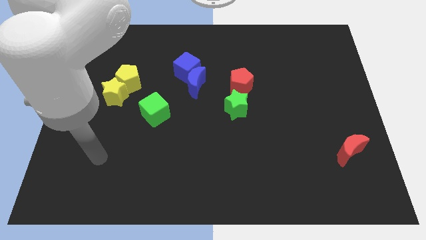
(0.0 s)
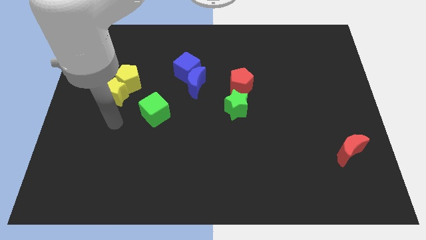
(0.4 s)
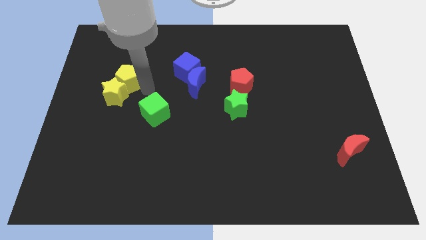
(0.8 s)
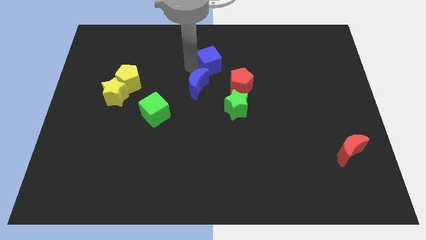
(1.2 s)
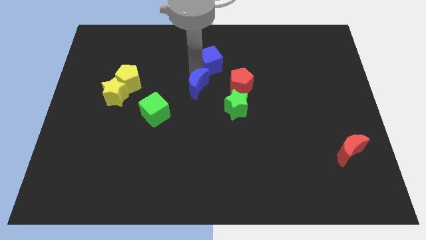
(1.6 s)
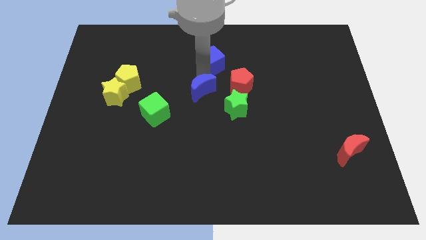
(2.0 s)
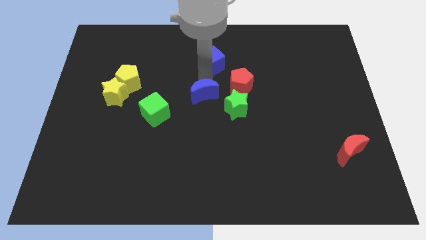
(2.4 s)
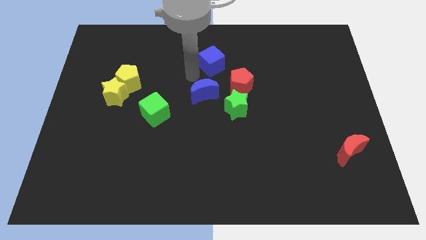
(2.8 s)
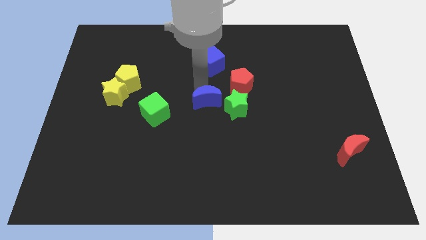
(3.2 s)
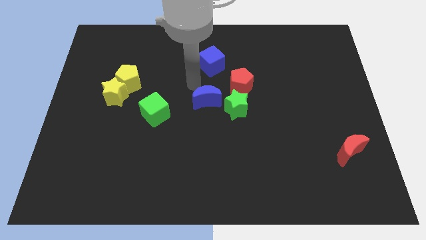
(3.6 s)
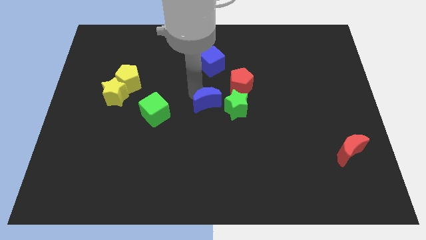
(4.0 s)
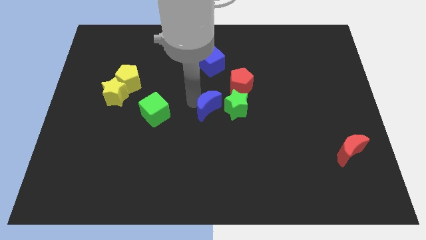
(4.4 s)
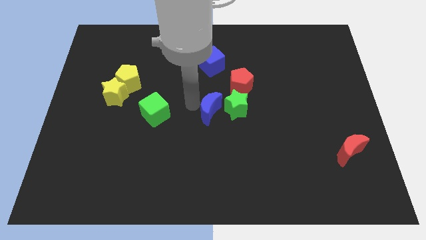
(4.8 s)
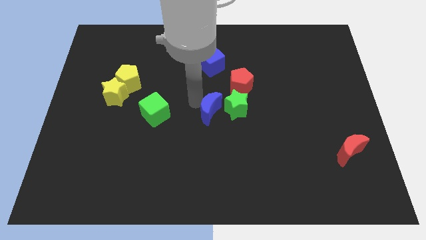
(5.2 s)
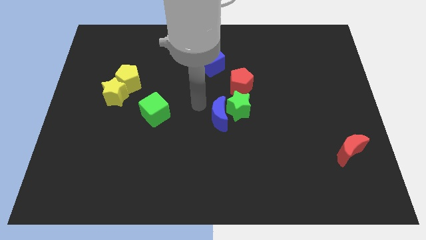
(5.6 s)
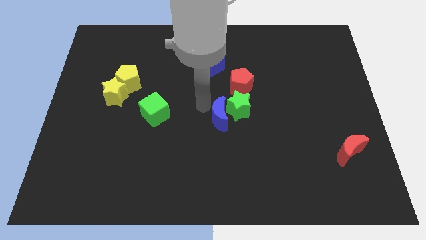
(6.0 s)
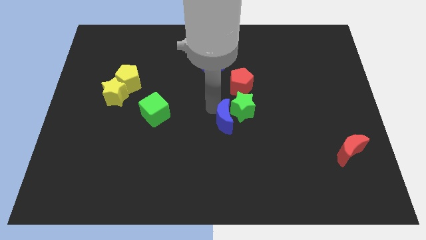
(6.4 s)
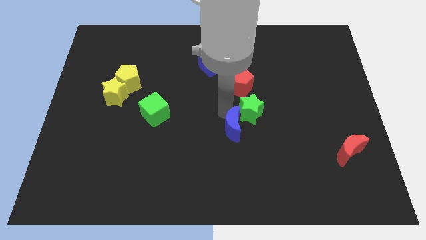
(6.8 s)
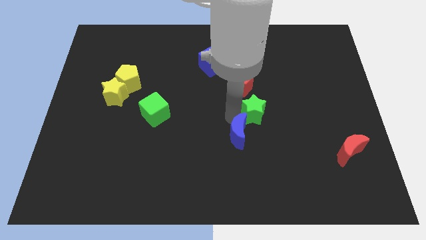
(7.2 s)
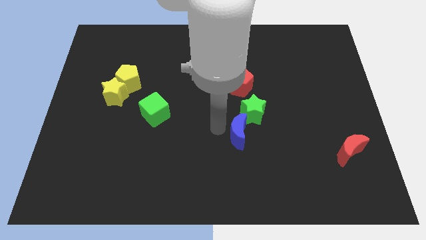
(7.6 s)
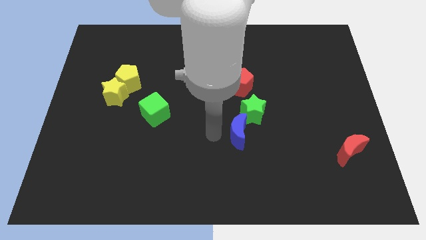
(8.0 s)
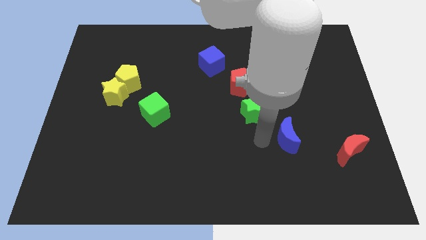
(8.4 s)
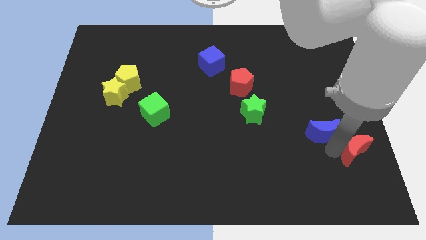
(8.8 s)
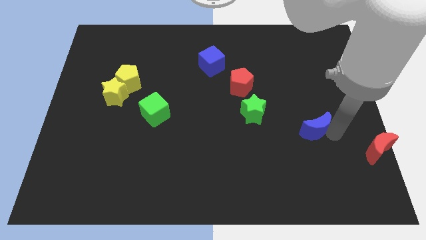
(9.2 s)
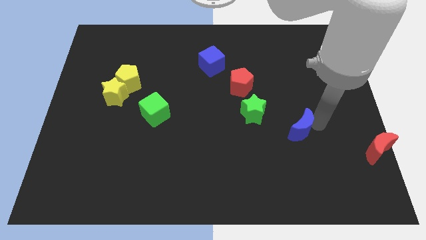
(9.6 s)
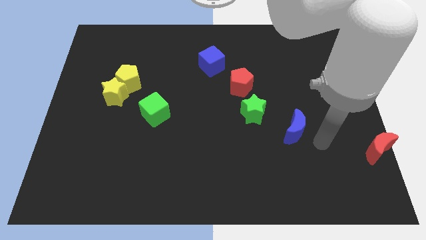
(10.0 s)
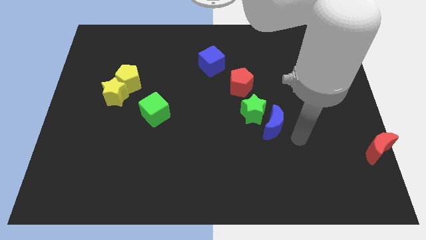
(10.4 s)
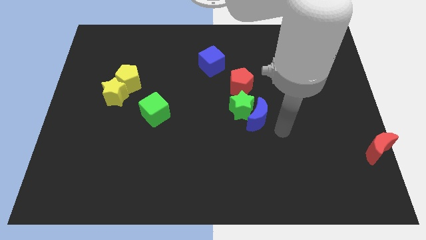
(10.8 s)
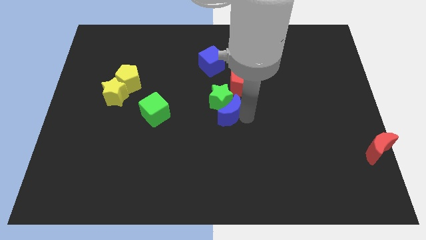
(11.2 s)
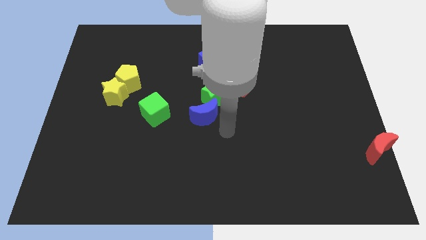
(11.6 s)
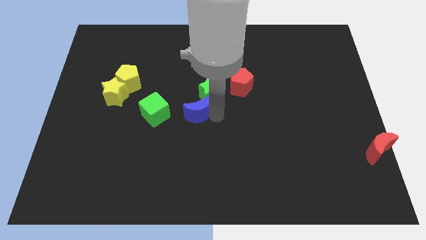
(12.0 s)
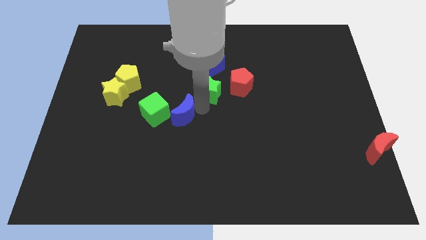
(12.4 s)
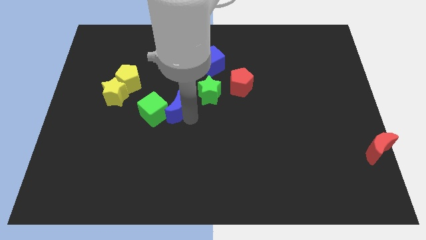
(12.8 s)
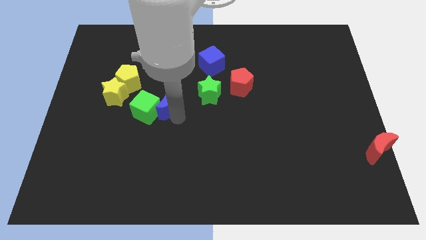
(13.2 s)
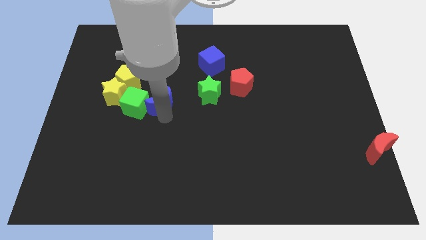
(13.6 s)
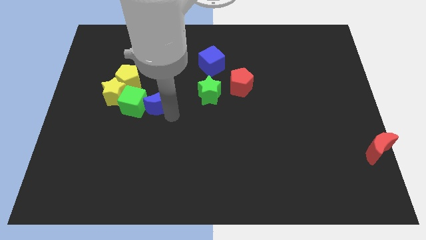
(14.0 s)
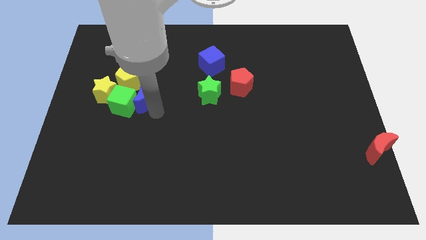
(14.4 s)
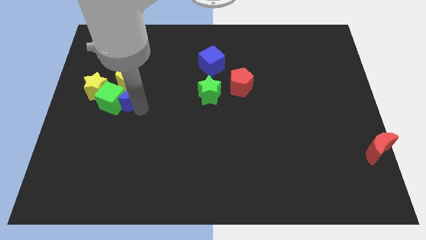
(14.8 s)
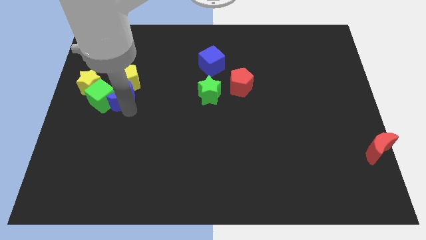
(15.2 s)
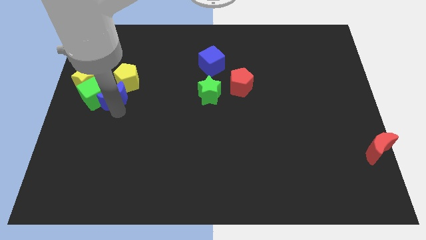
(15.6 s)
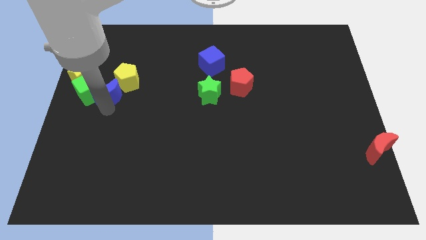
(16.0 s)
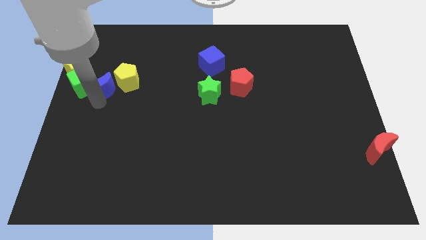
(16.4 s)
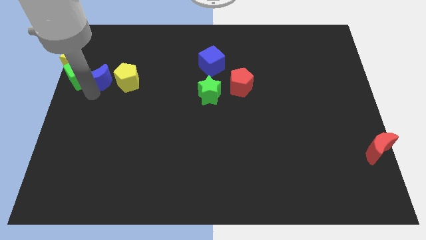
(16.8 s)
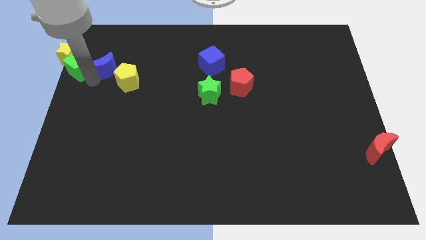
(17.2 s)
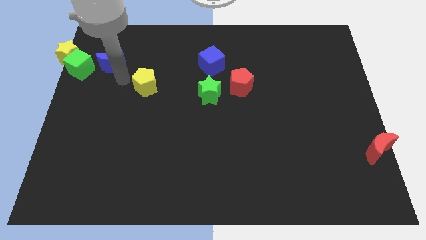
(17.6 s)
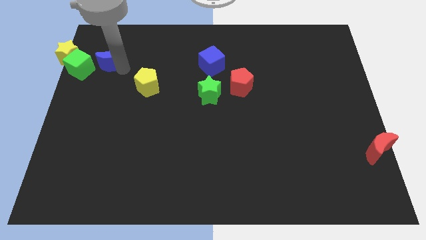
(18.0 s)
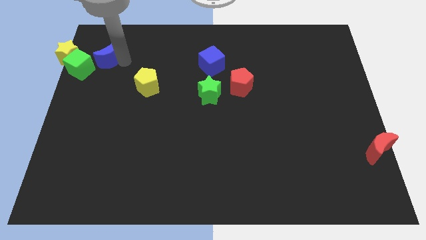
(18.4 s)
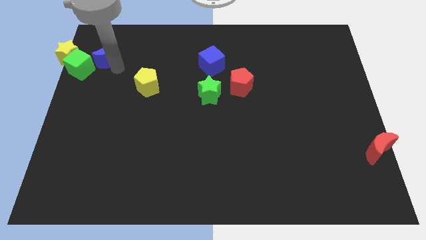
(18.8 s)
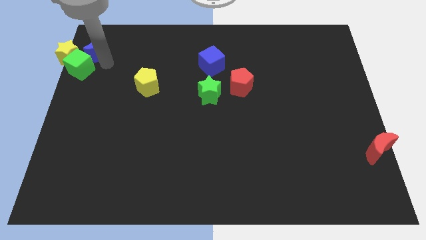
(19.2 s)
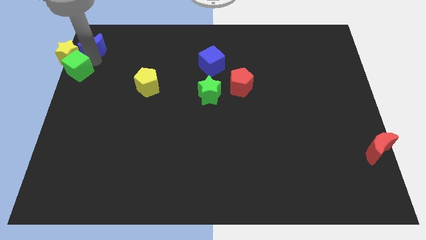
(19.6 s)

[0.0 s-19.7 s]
push the blue moon to the top left of the board

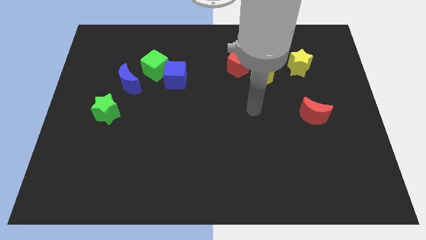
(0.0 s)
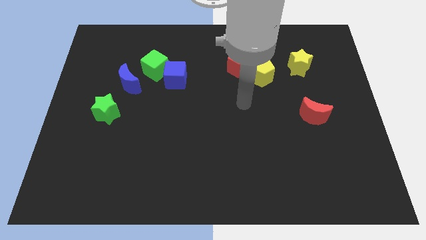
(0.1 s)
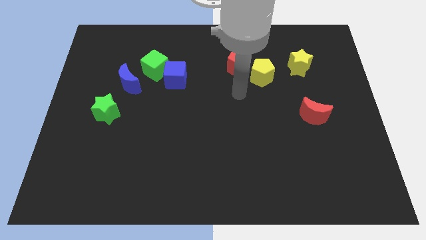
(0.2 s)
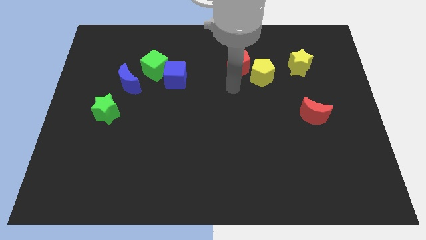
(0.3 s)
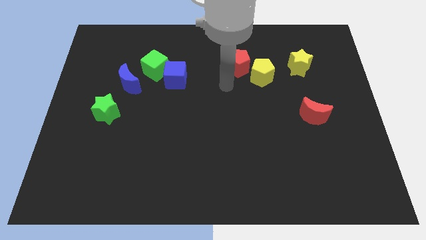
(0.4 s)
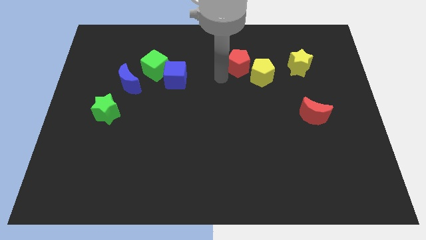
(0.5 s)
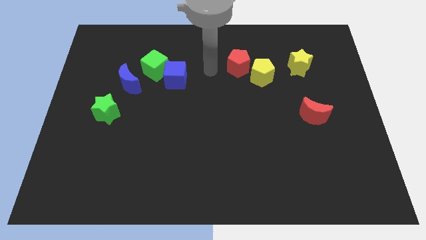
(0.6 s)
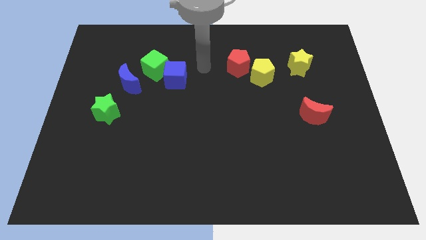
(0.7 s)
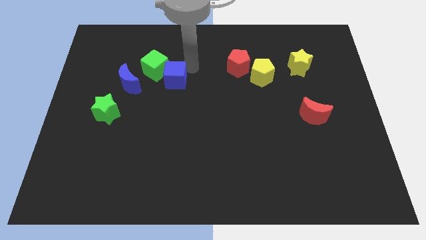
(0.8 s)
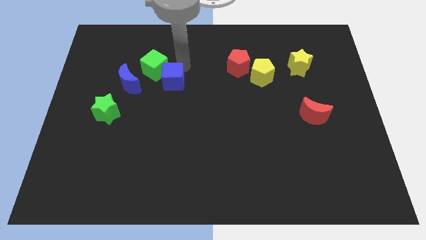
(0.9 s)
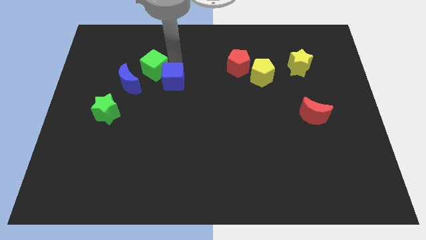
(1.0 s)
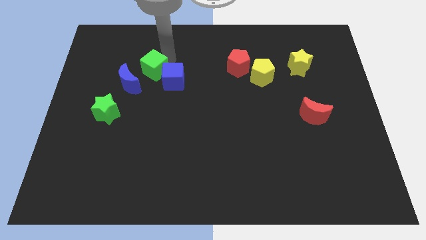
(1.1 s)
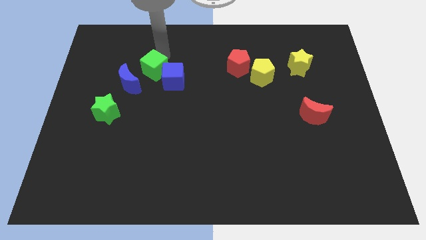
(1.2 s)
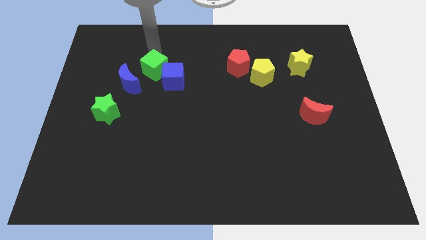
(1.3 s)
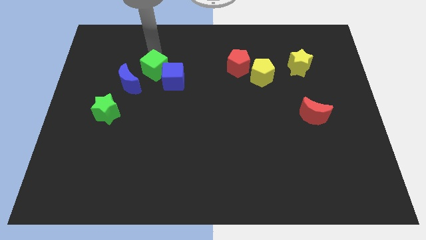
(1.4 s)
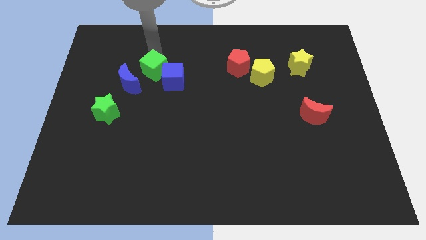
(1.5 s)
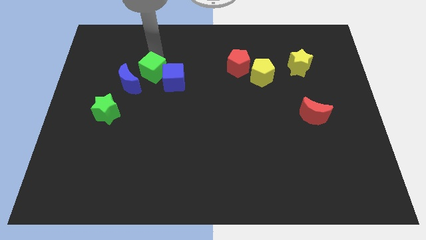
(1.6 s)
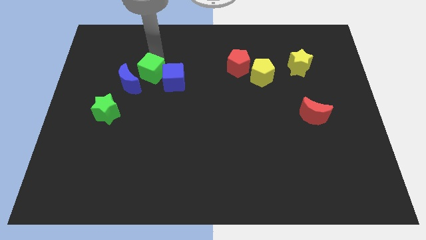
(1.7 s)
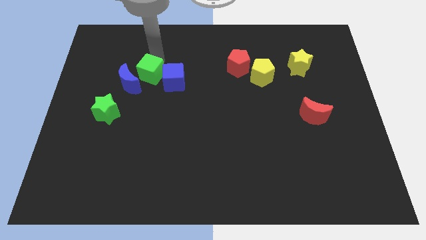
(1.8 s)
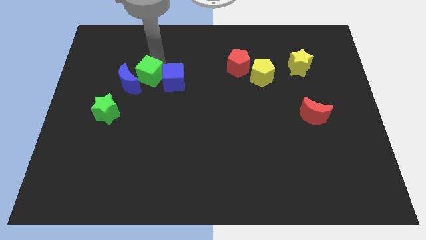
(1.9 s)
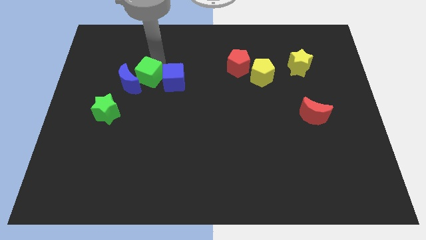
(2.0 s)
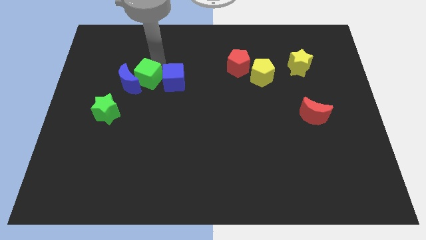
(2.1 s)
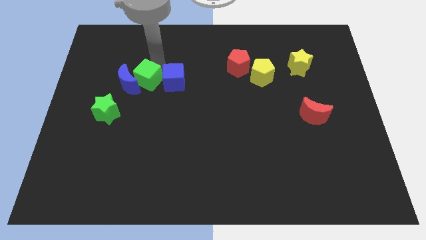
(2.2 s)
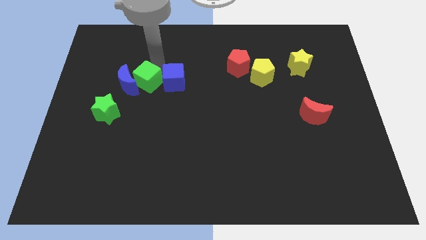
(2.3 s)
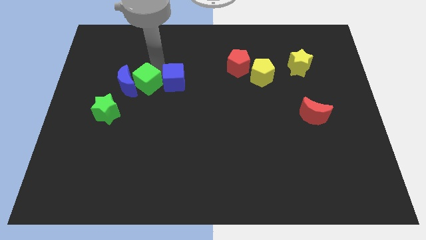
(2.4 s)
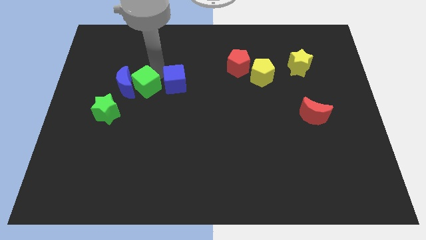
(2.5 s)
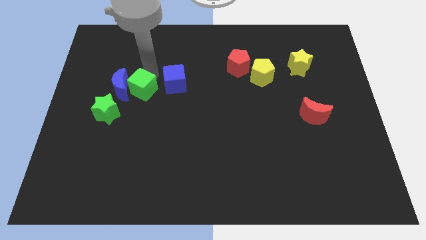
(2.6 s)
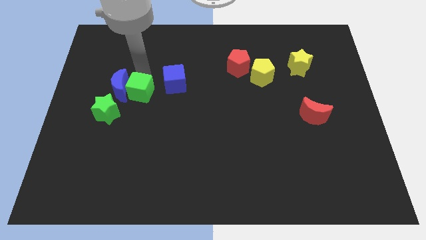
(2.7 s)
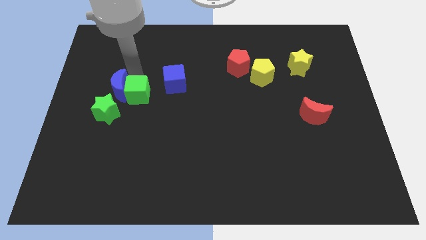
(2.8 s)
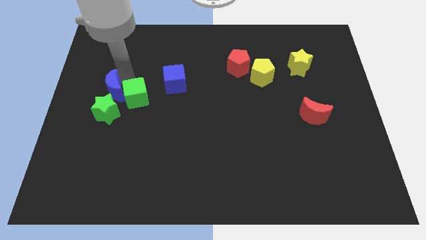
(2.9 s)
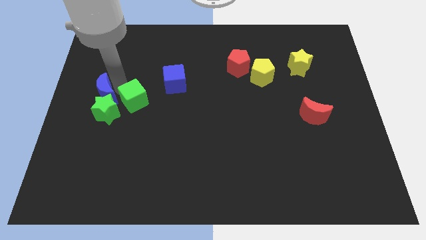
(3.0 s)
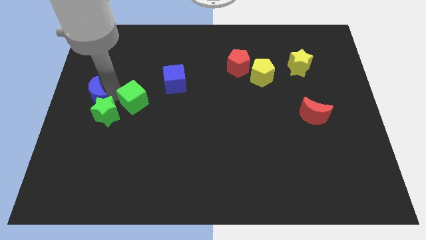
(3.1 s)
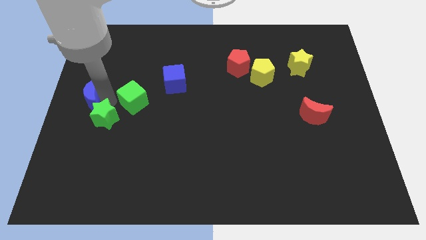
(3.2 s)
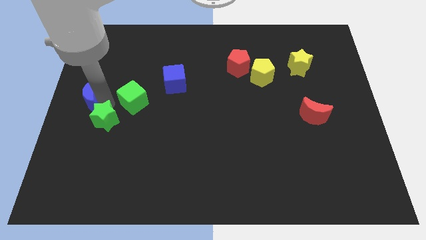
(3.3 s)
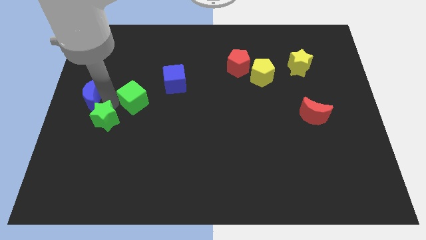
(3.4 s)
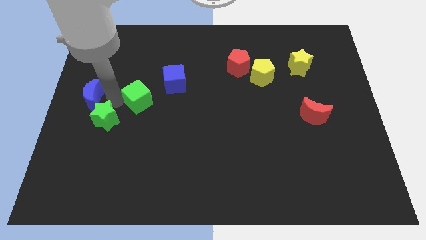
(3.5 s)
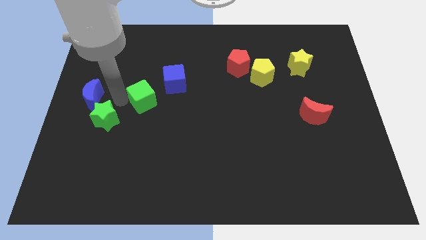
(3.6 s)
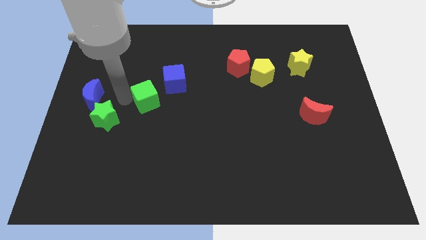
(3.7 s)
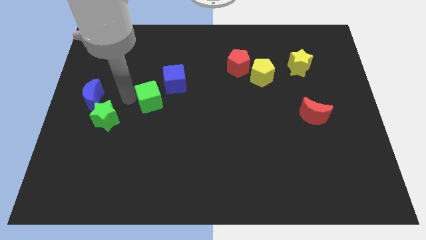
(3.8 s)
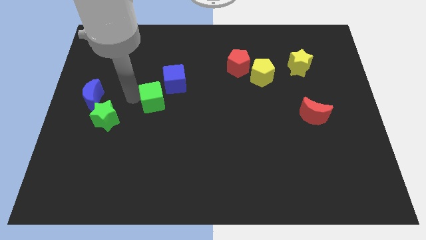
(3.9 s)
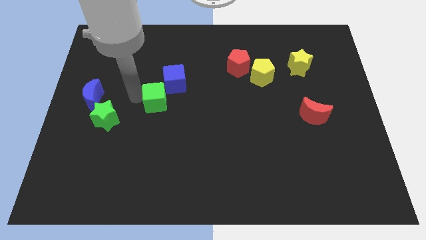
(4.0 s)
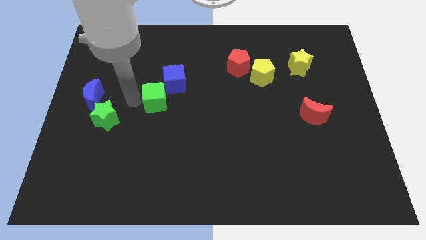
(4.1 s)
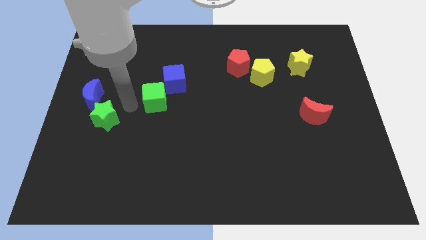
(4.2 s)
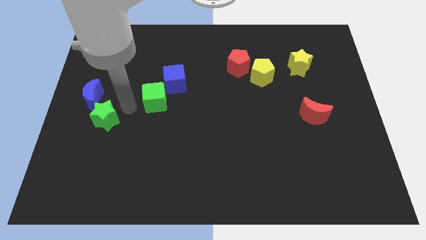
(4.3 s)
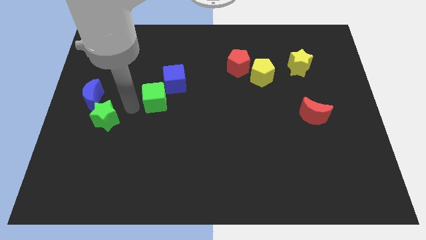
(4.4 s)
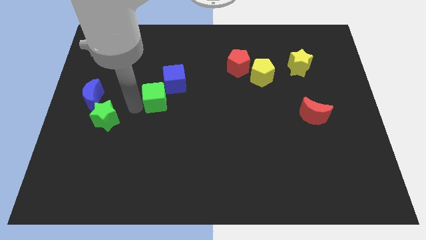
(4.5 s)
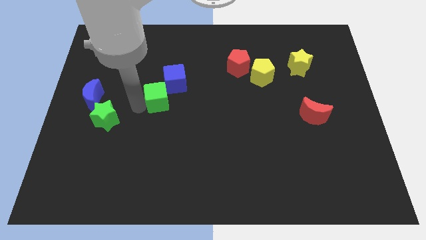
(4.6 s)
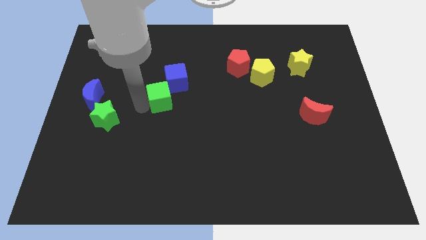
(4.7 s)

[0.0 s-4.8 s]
move the green cube to the center of the board
